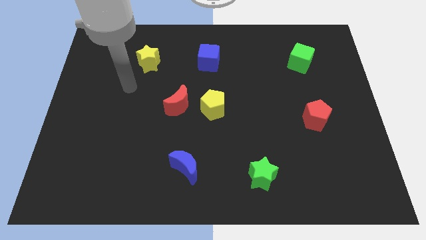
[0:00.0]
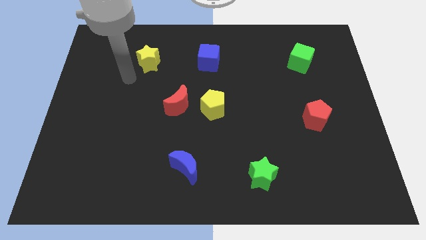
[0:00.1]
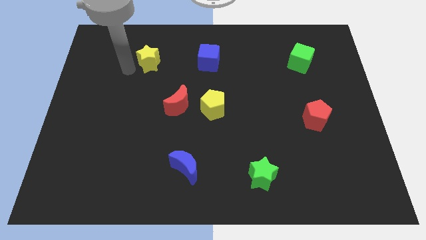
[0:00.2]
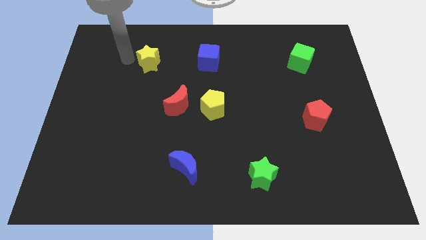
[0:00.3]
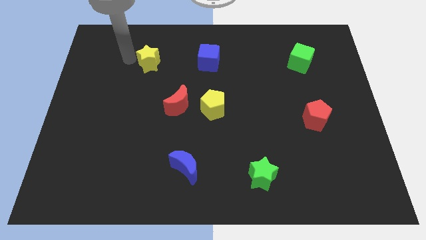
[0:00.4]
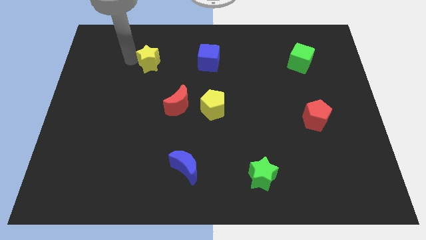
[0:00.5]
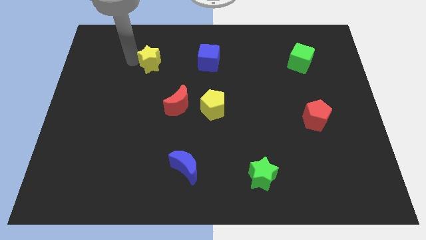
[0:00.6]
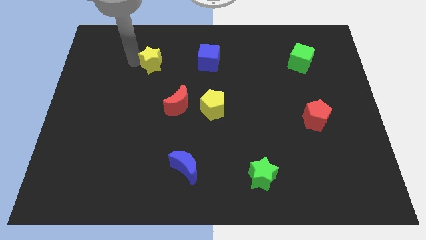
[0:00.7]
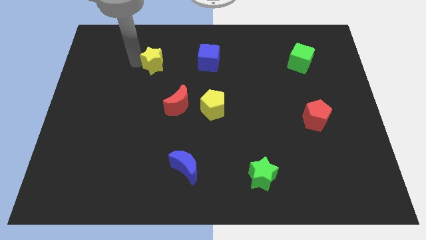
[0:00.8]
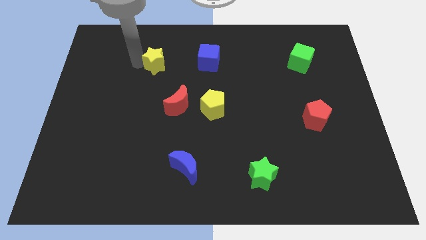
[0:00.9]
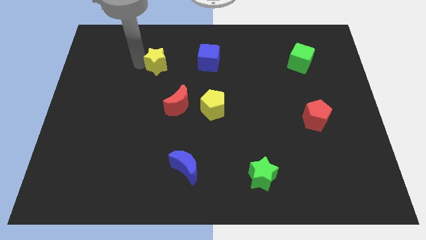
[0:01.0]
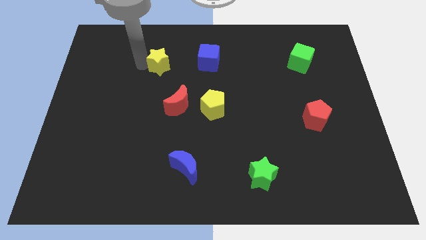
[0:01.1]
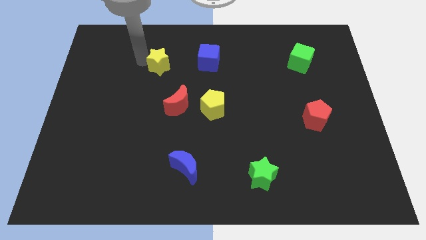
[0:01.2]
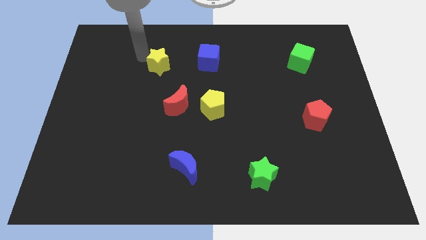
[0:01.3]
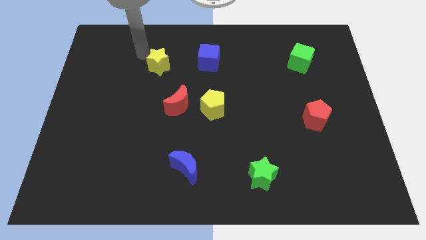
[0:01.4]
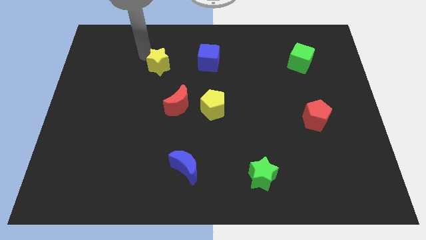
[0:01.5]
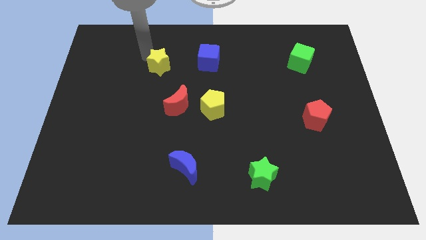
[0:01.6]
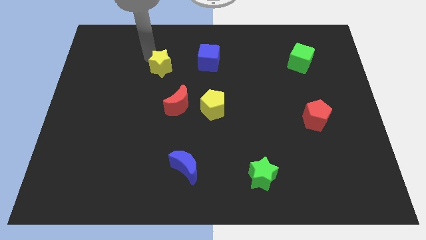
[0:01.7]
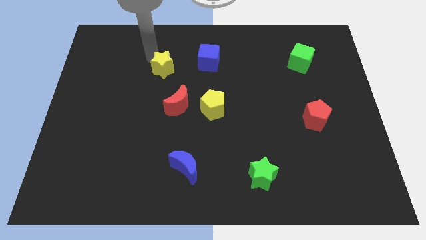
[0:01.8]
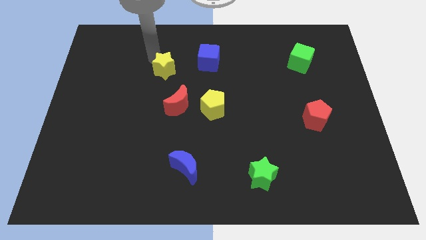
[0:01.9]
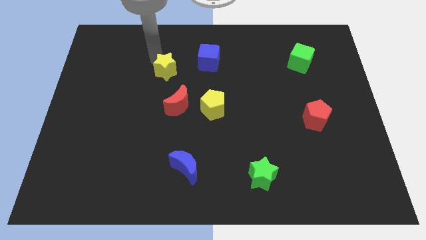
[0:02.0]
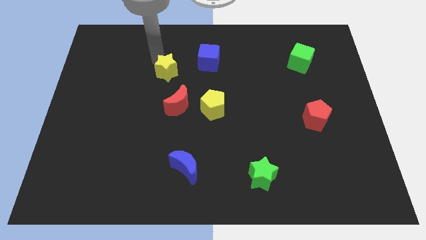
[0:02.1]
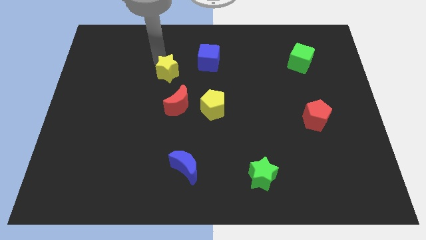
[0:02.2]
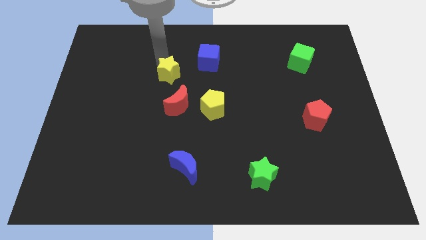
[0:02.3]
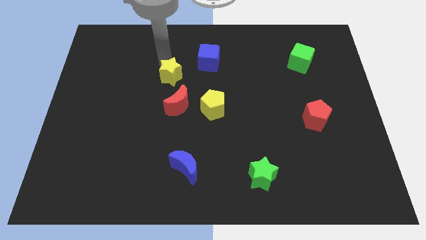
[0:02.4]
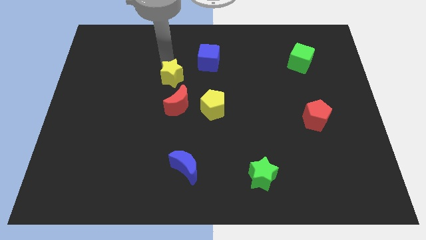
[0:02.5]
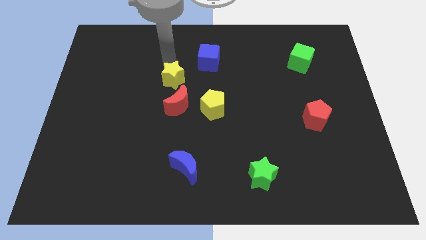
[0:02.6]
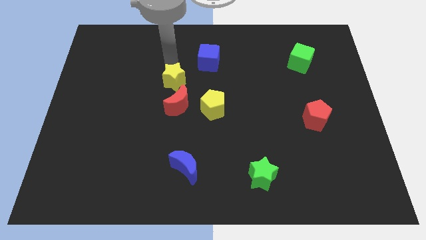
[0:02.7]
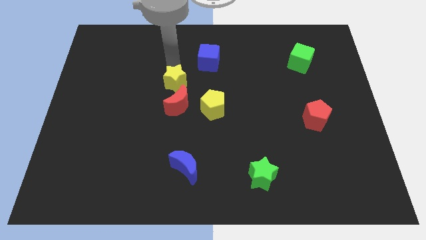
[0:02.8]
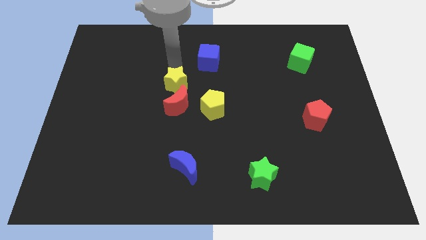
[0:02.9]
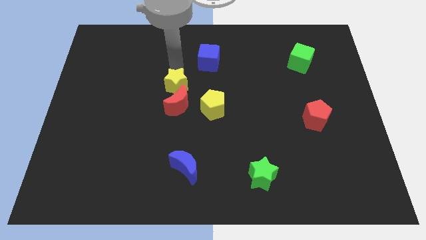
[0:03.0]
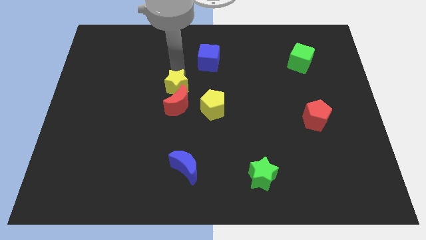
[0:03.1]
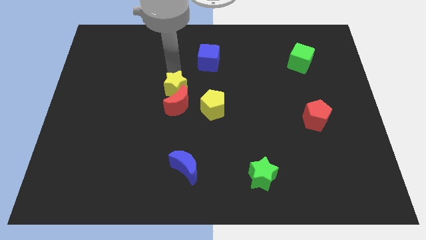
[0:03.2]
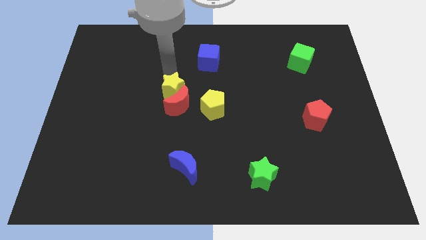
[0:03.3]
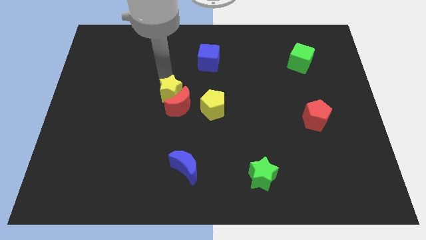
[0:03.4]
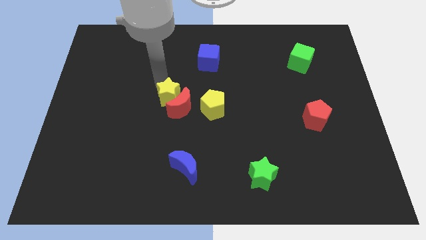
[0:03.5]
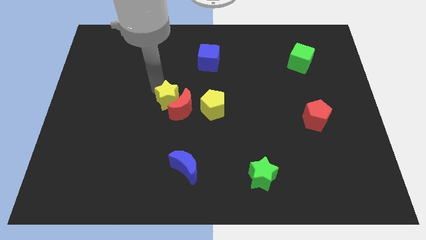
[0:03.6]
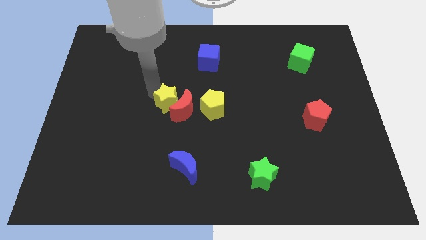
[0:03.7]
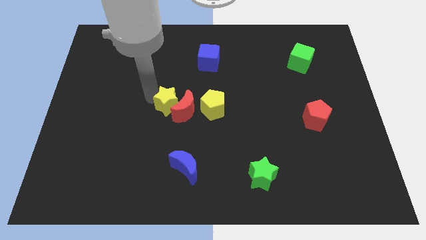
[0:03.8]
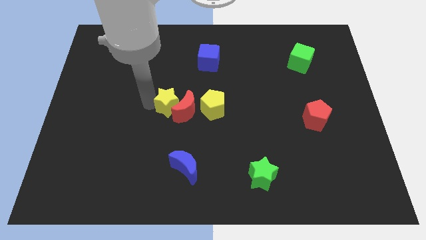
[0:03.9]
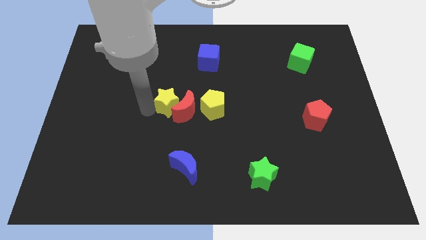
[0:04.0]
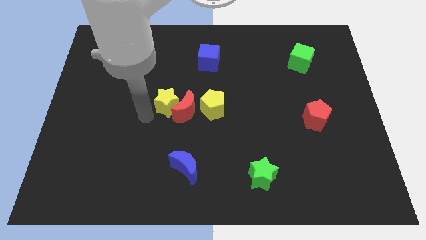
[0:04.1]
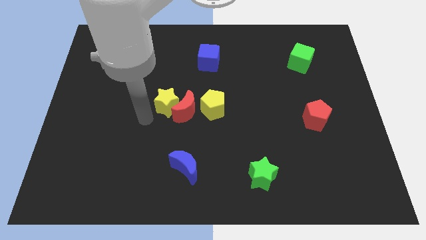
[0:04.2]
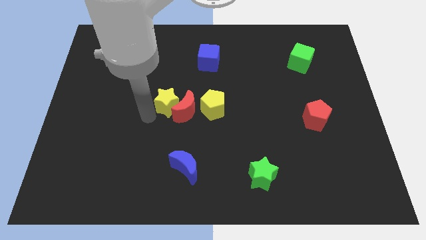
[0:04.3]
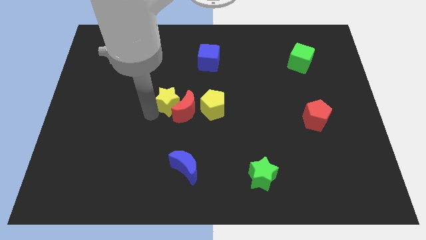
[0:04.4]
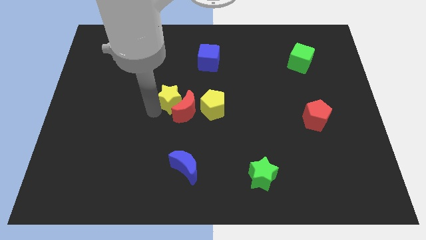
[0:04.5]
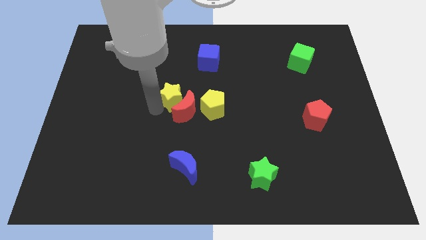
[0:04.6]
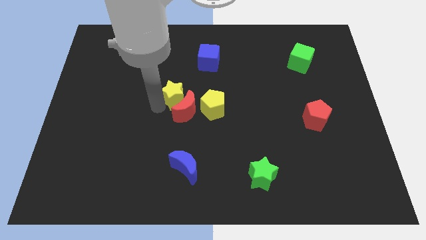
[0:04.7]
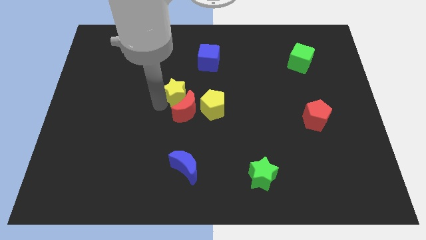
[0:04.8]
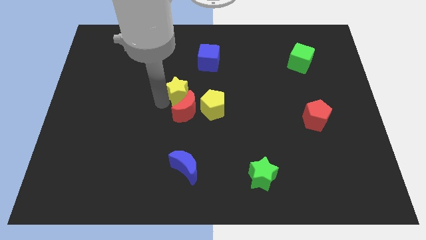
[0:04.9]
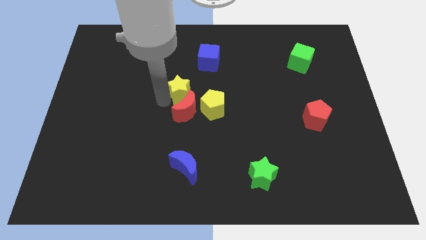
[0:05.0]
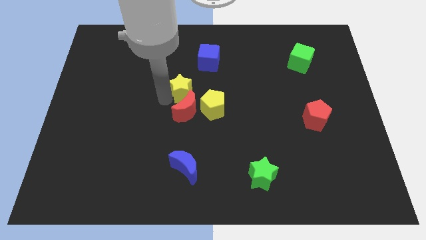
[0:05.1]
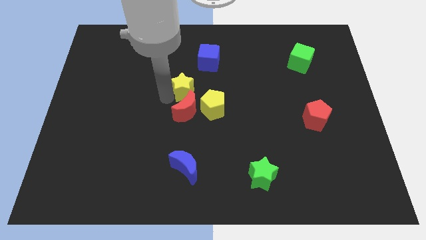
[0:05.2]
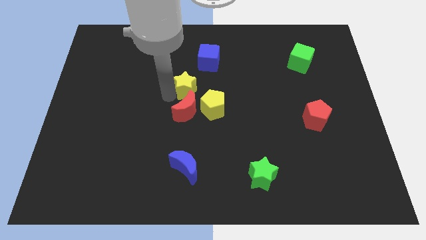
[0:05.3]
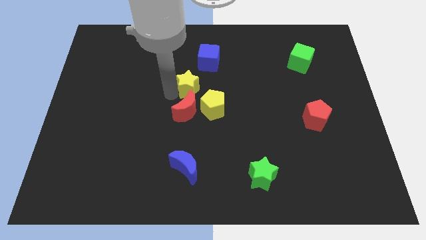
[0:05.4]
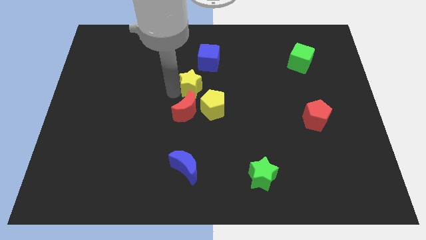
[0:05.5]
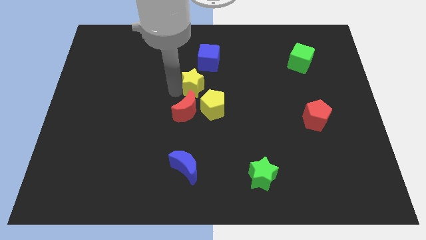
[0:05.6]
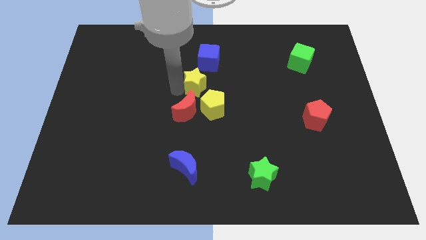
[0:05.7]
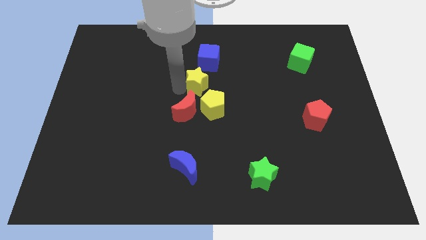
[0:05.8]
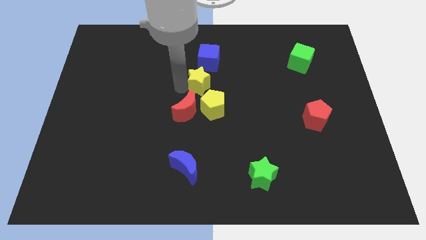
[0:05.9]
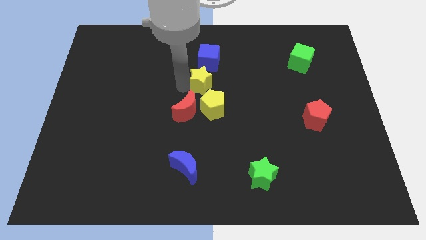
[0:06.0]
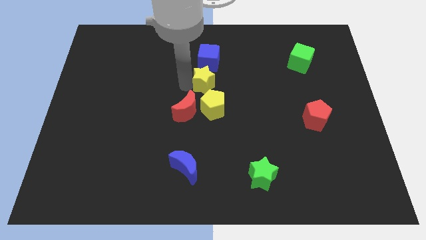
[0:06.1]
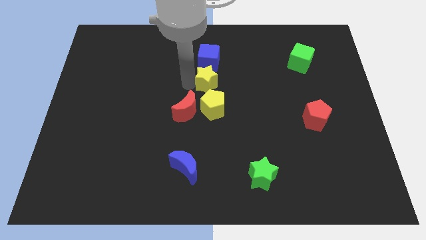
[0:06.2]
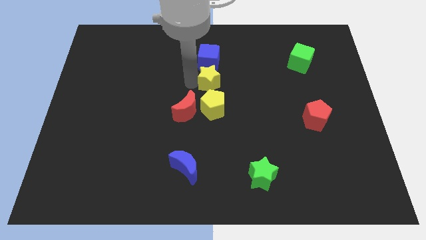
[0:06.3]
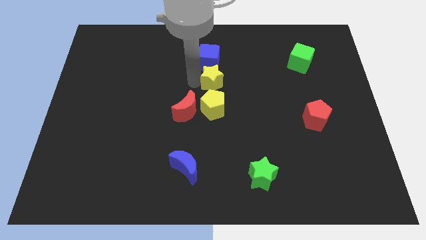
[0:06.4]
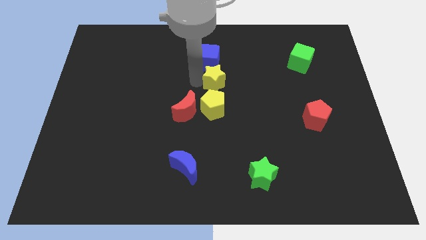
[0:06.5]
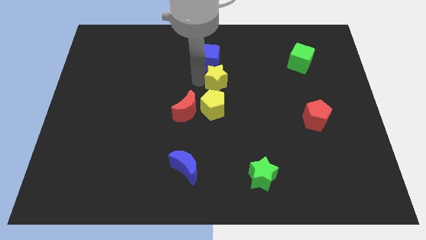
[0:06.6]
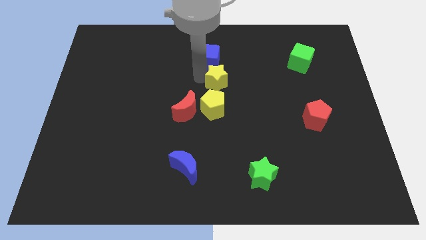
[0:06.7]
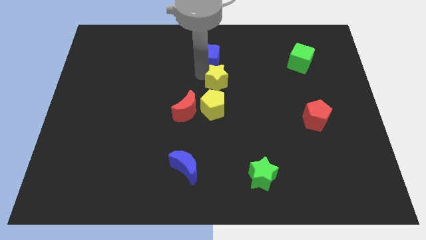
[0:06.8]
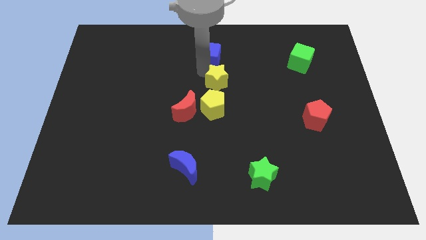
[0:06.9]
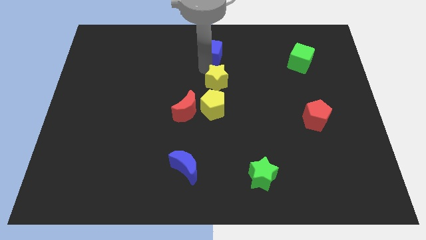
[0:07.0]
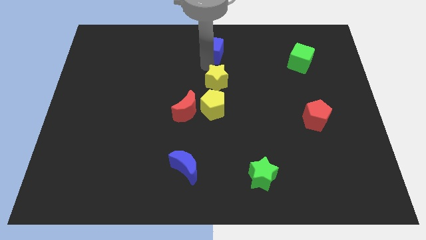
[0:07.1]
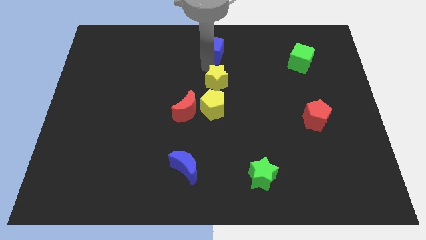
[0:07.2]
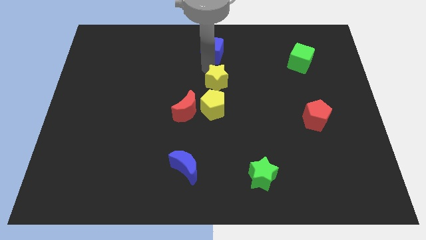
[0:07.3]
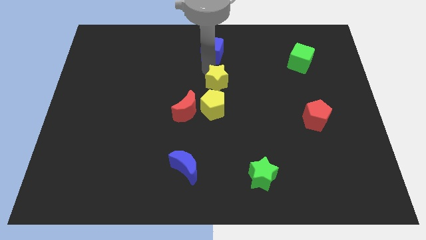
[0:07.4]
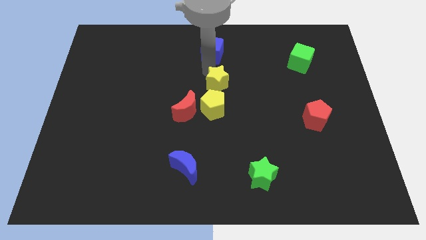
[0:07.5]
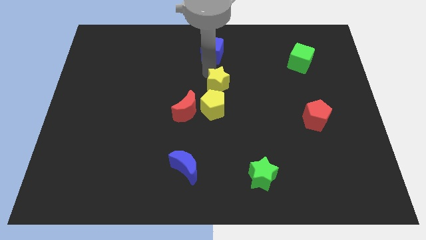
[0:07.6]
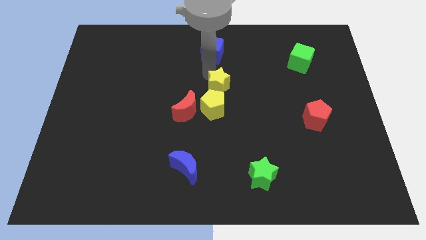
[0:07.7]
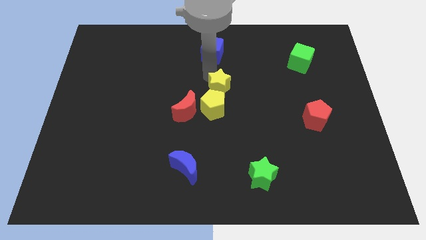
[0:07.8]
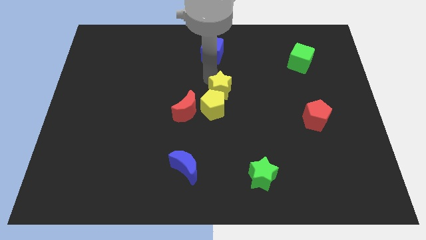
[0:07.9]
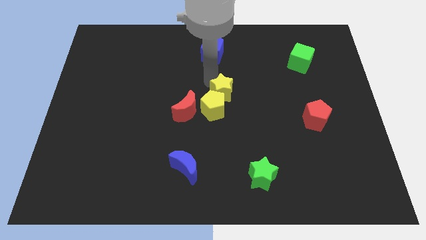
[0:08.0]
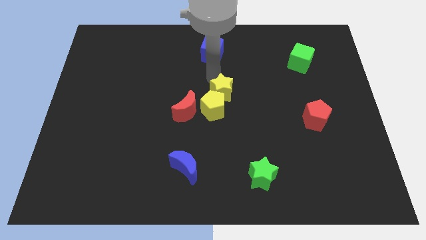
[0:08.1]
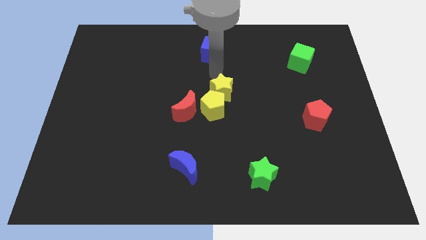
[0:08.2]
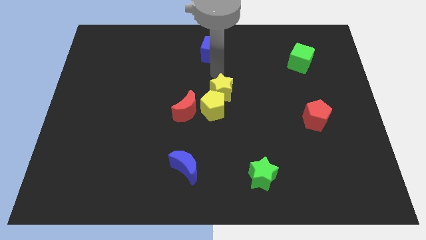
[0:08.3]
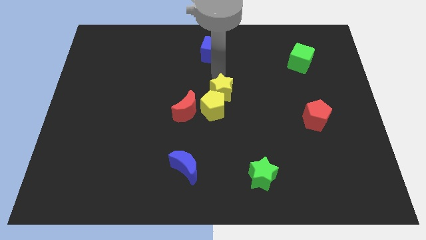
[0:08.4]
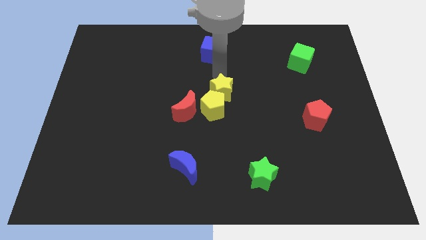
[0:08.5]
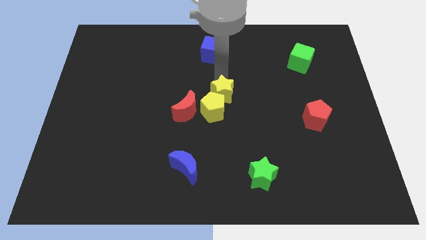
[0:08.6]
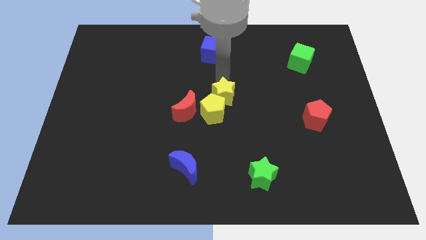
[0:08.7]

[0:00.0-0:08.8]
slide the yellow star downwards and right diagonally
